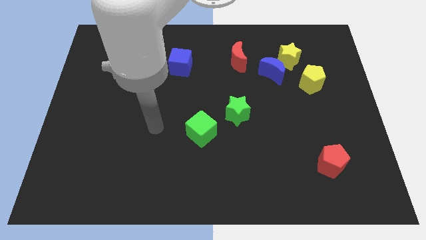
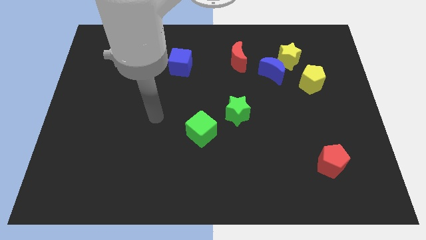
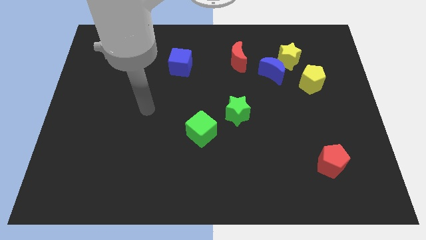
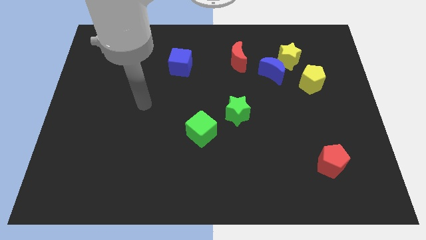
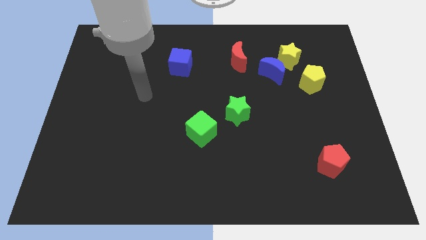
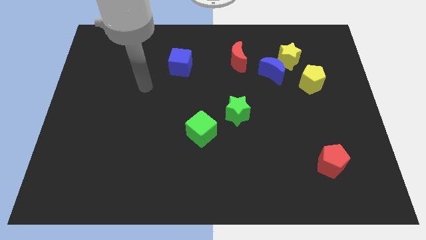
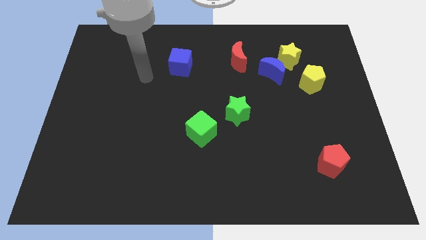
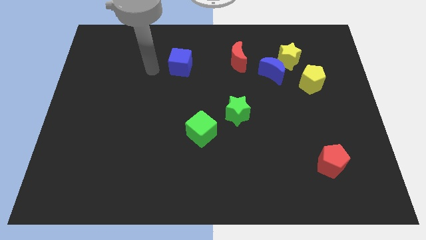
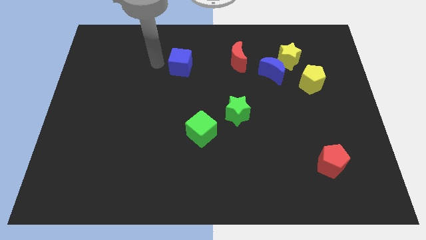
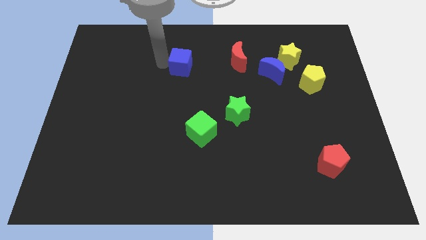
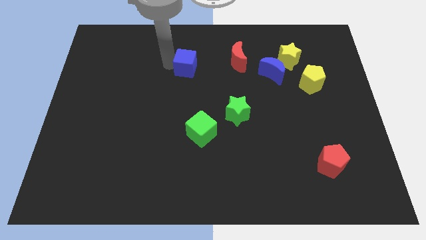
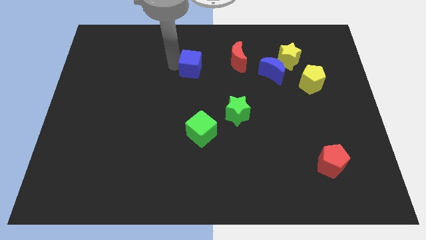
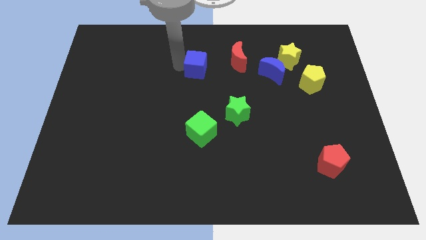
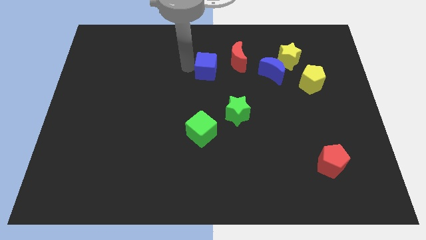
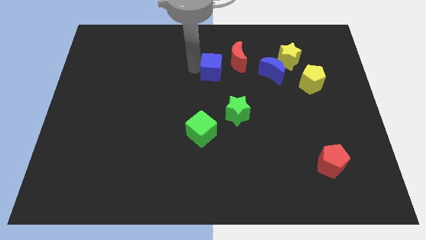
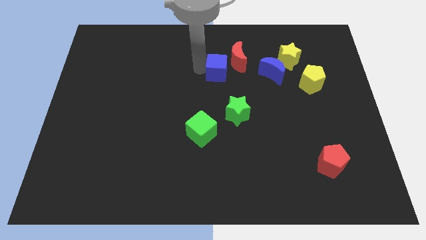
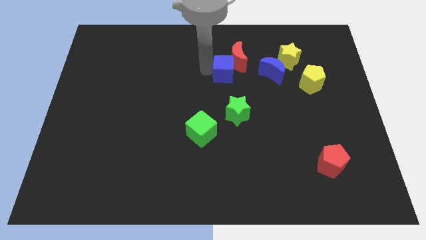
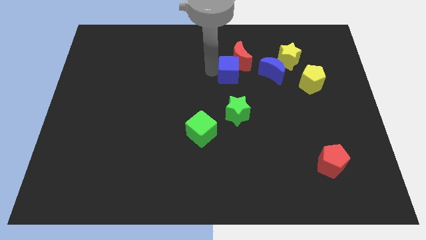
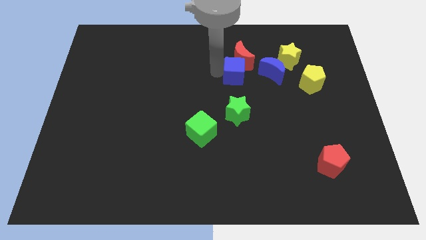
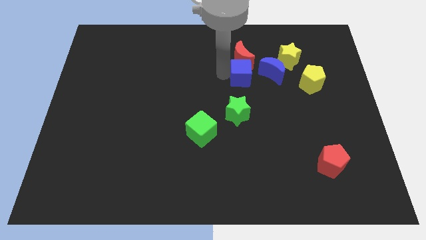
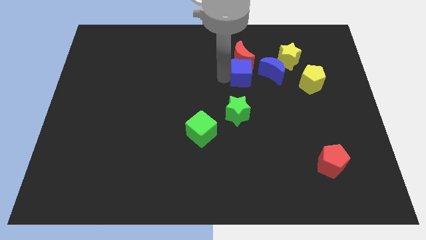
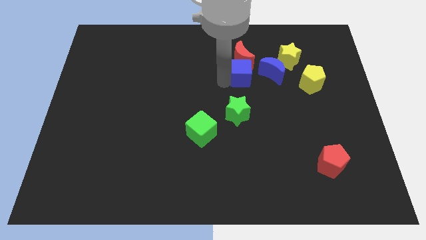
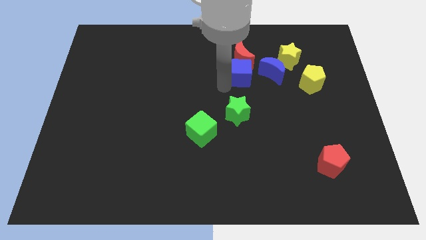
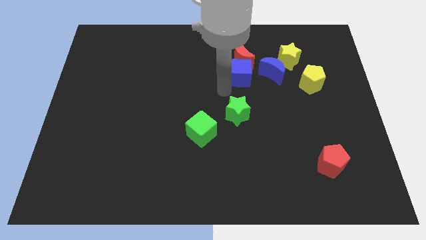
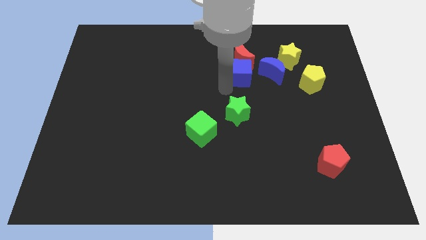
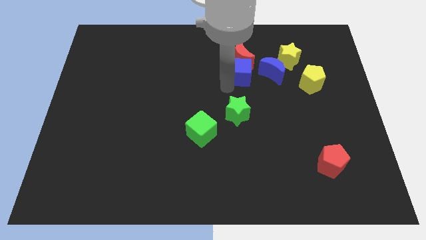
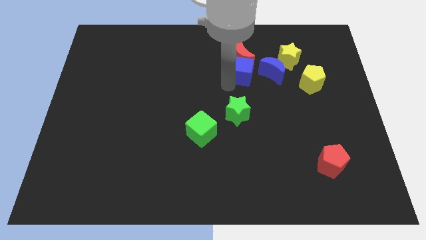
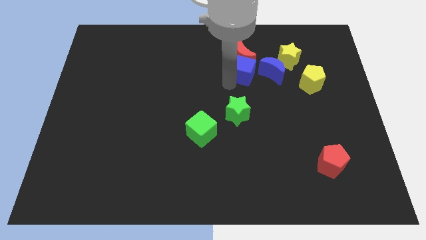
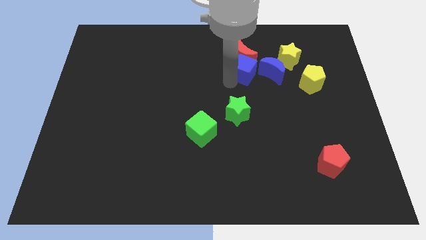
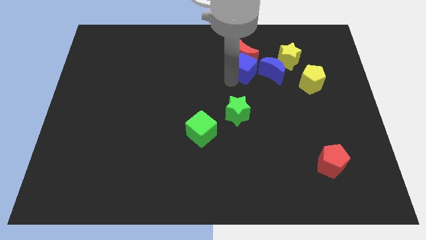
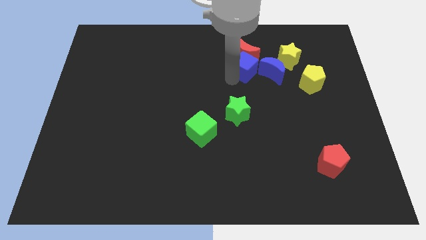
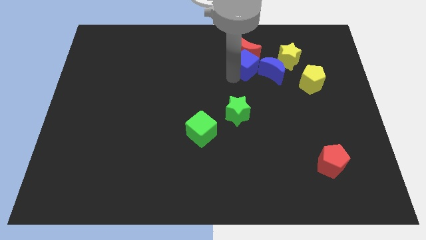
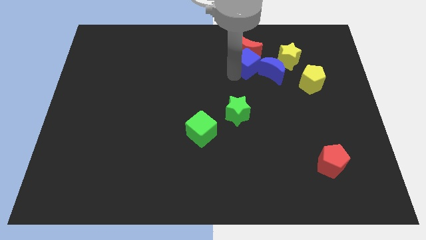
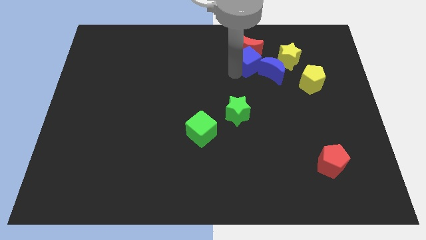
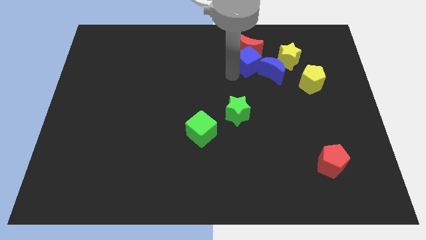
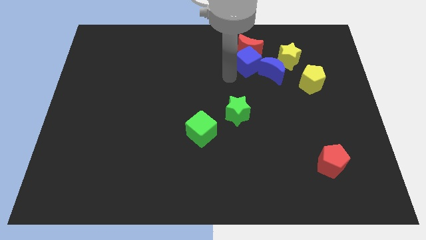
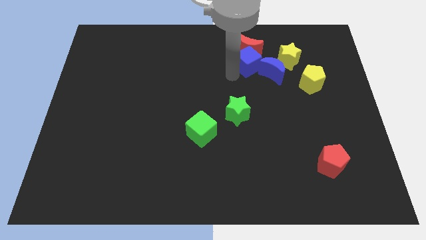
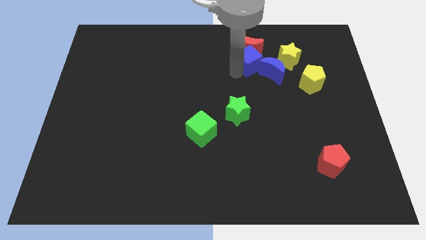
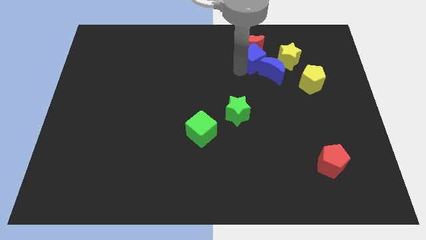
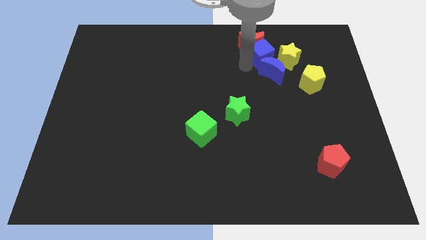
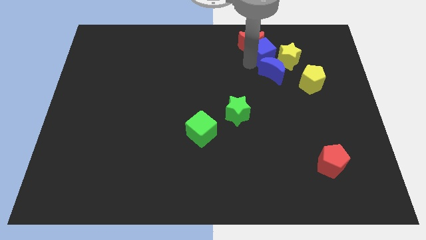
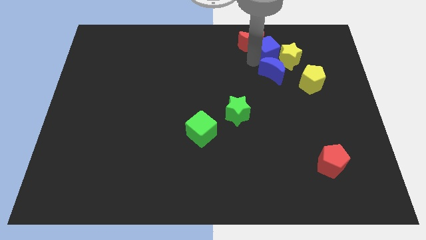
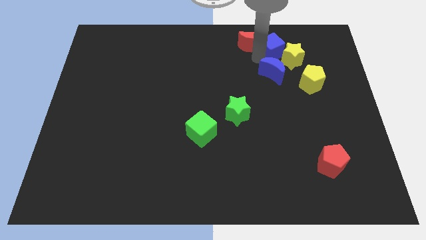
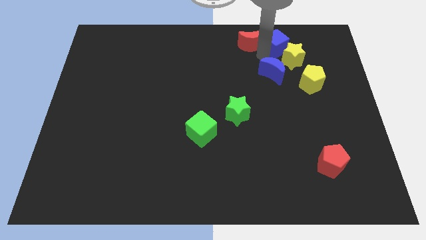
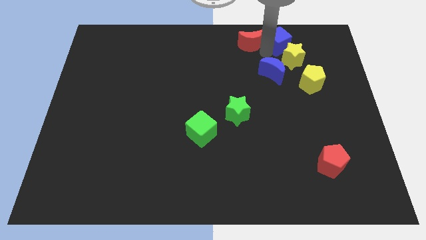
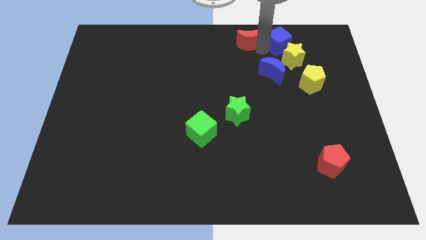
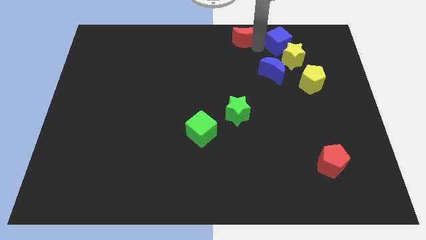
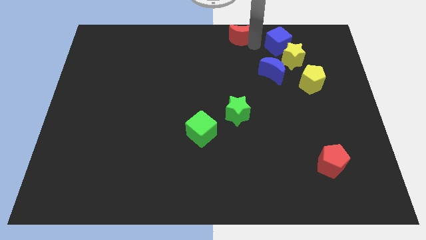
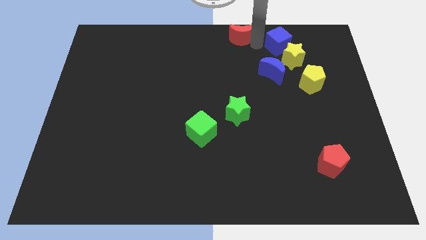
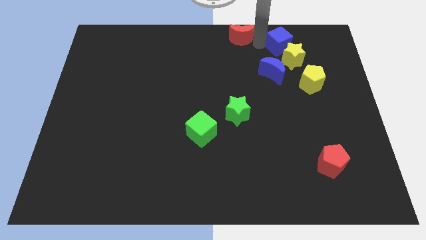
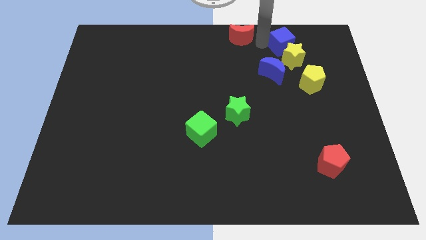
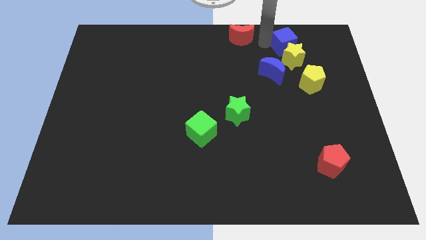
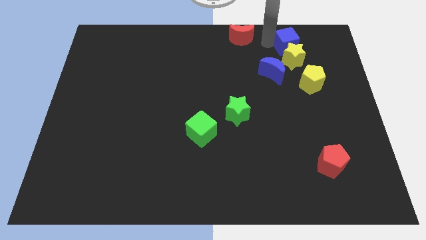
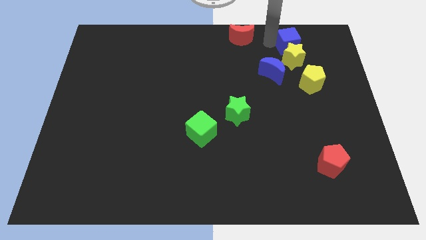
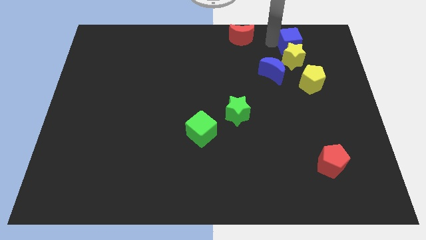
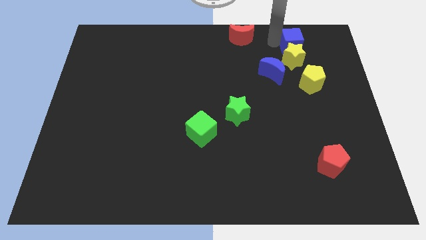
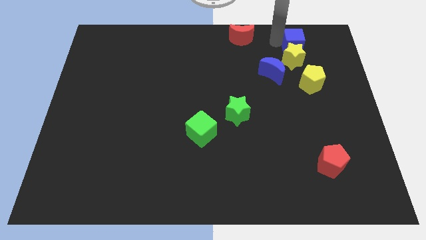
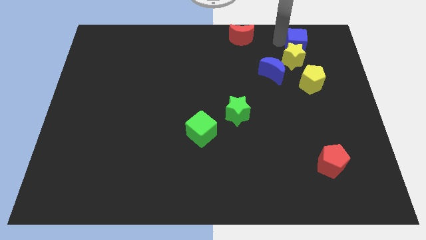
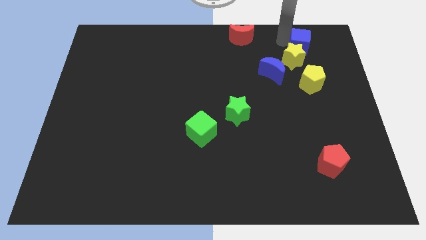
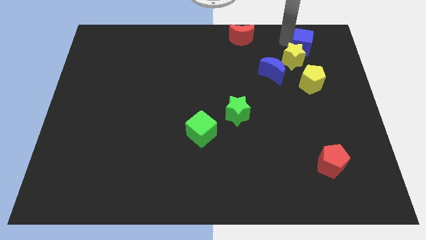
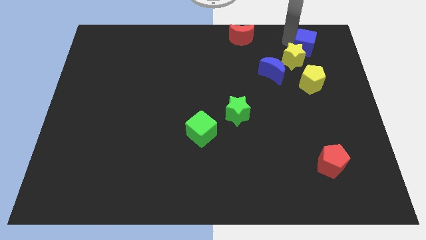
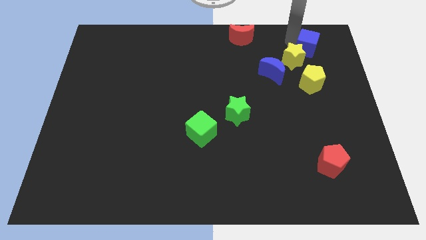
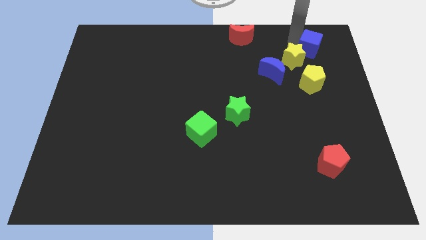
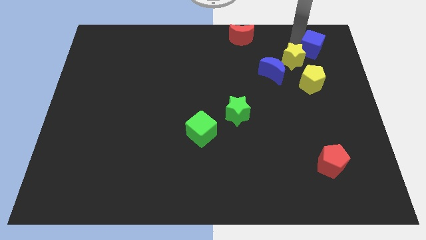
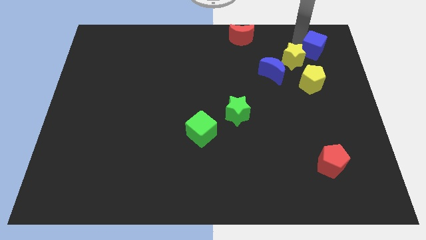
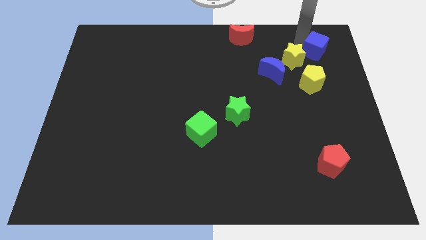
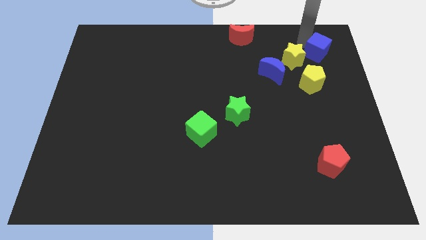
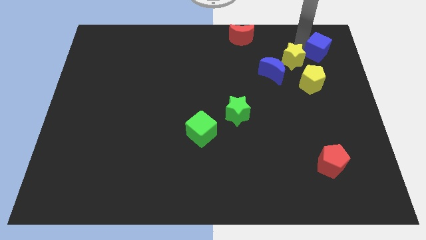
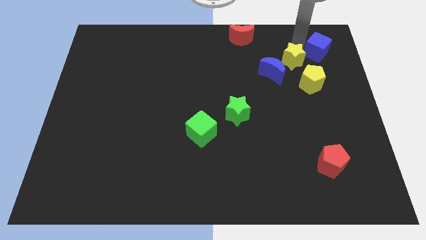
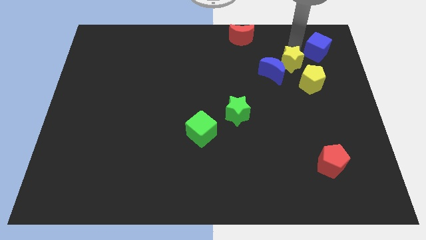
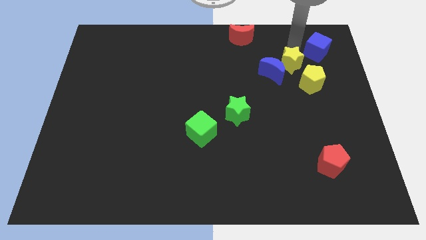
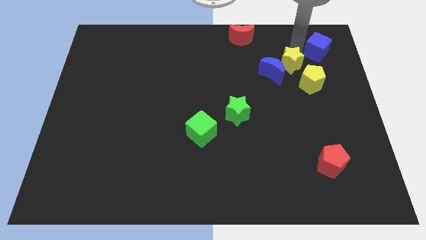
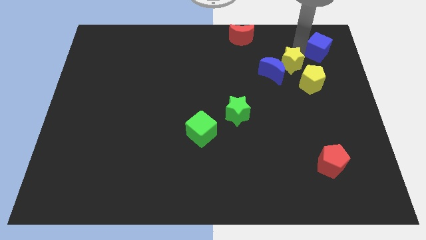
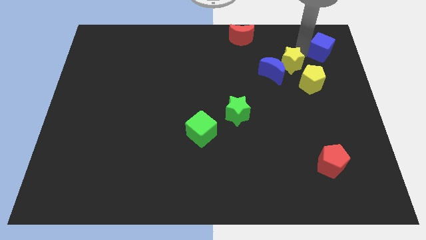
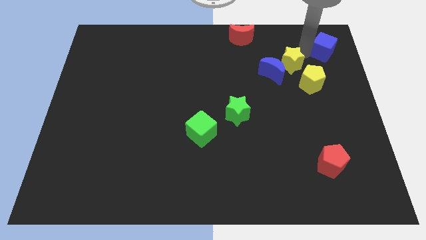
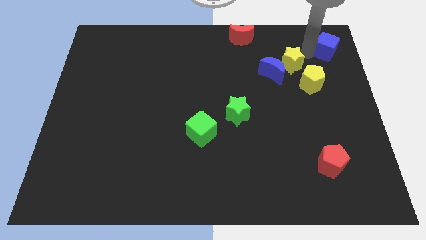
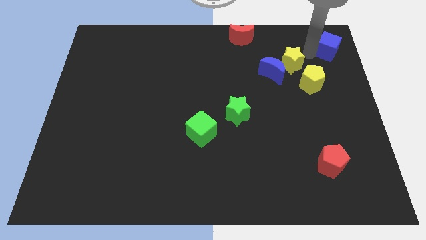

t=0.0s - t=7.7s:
push the blue cube to the top right
